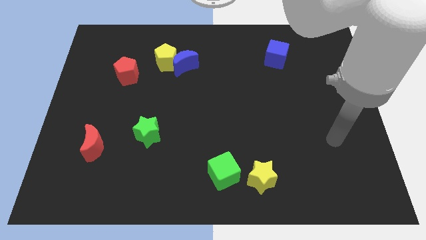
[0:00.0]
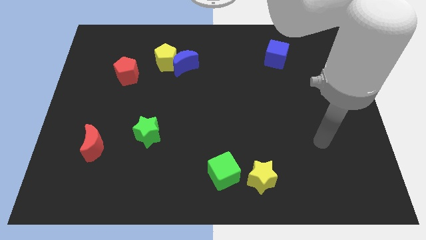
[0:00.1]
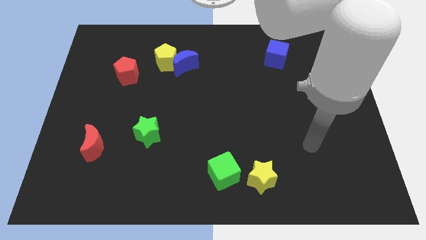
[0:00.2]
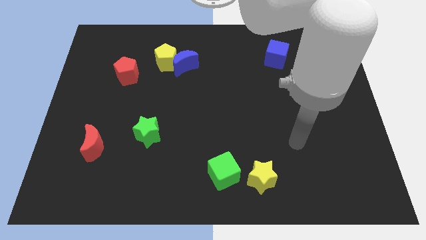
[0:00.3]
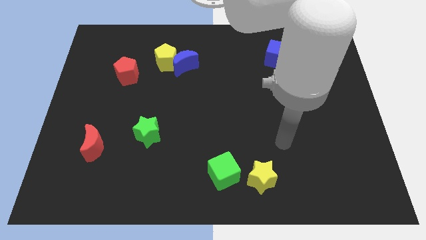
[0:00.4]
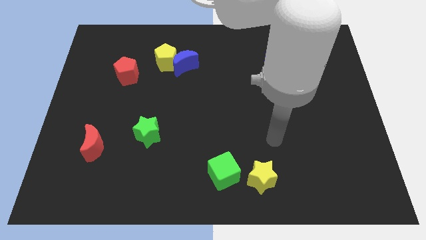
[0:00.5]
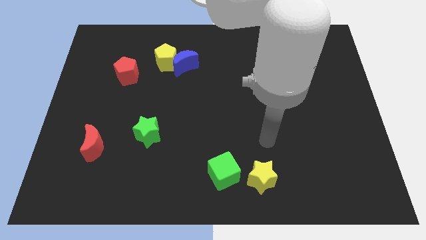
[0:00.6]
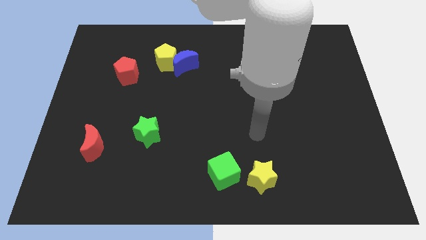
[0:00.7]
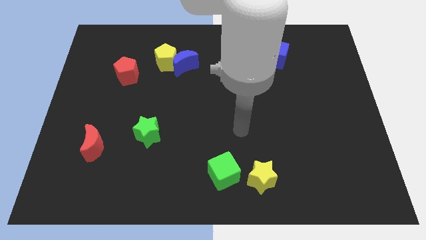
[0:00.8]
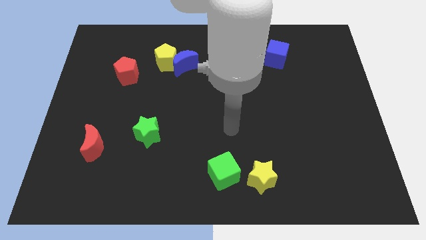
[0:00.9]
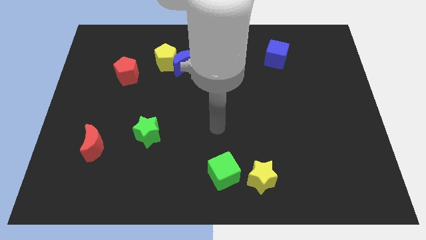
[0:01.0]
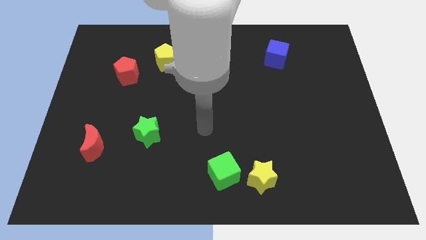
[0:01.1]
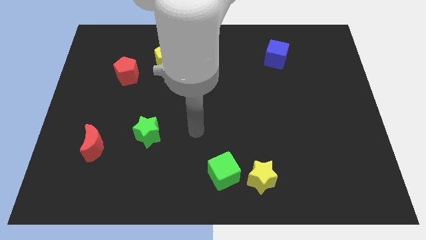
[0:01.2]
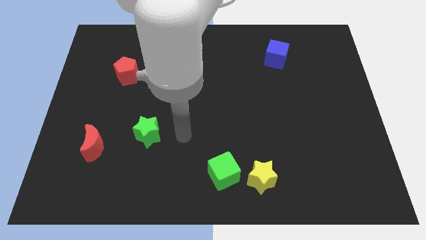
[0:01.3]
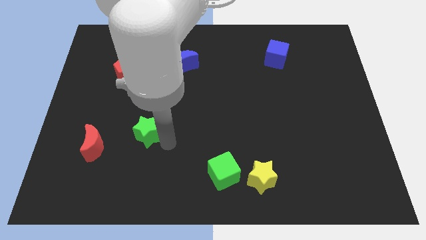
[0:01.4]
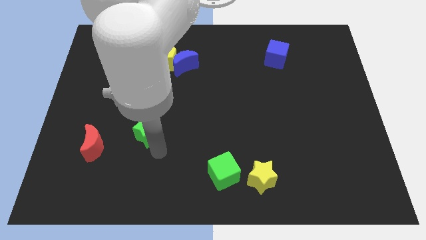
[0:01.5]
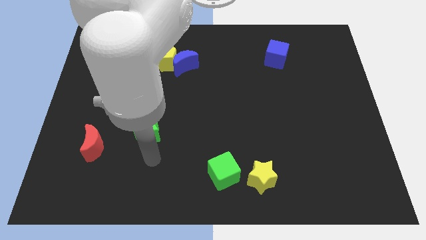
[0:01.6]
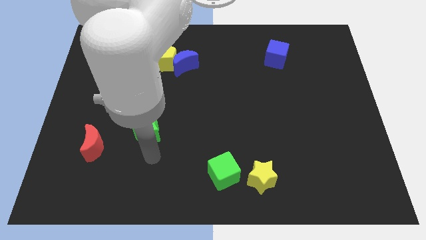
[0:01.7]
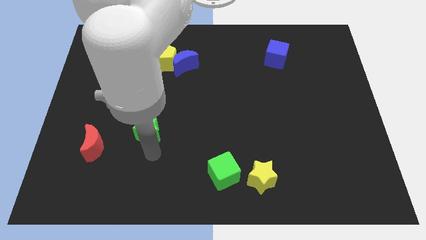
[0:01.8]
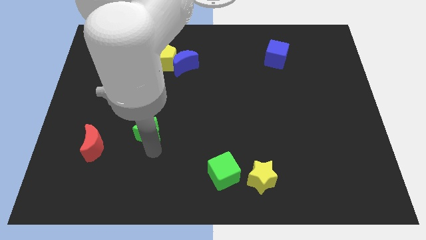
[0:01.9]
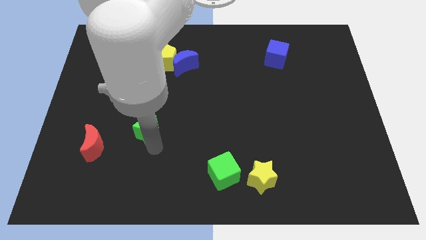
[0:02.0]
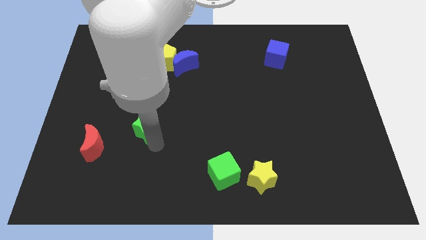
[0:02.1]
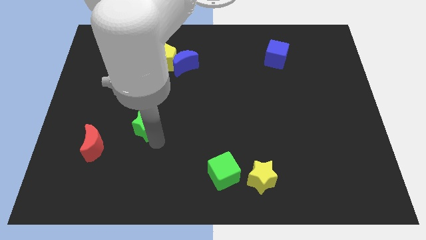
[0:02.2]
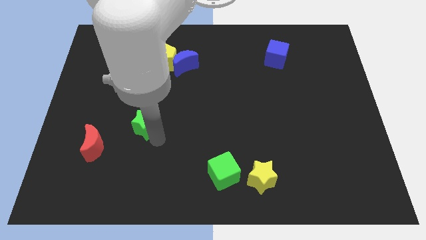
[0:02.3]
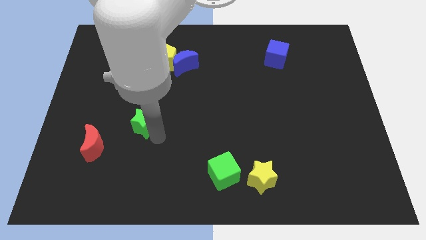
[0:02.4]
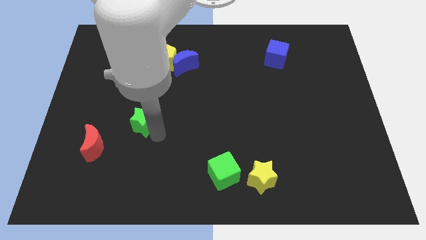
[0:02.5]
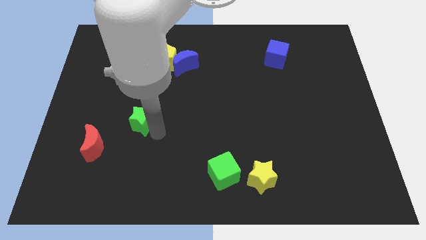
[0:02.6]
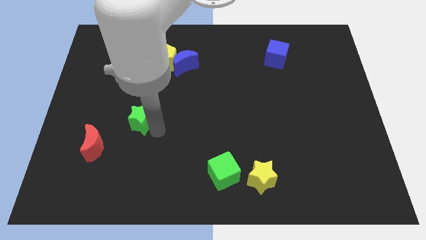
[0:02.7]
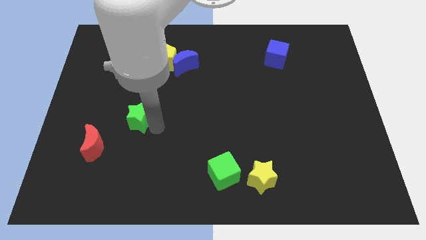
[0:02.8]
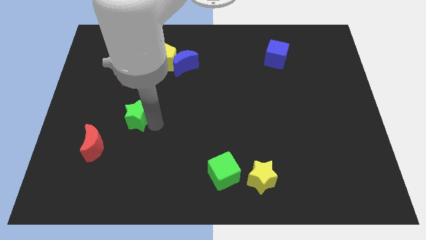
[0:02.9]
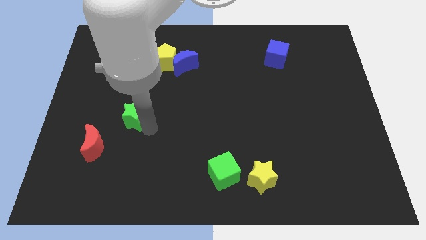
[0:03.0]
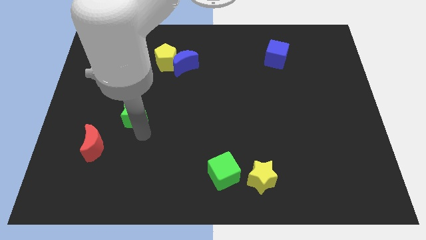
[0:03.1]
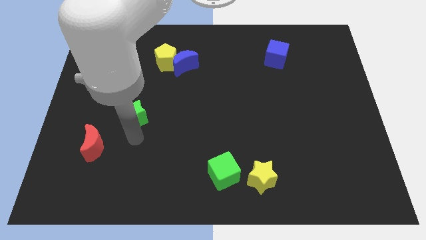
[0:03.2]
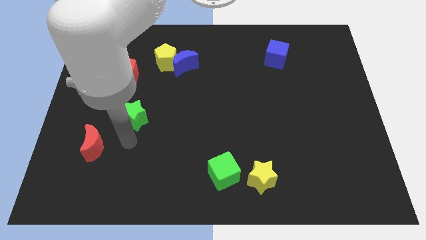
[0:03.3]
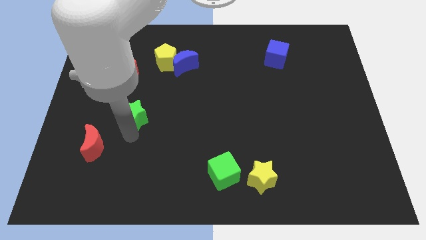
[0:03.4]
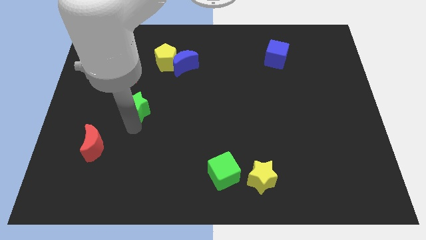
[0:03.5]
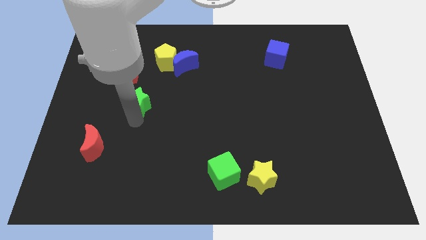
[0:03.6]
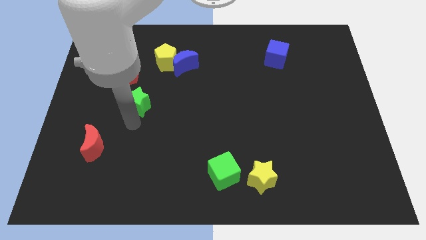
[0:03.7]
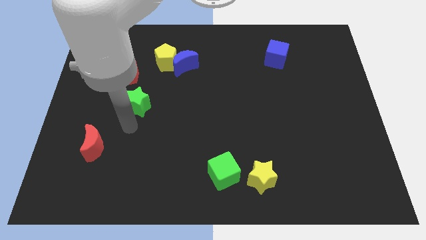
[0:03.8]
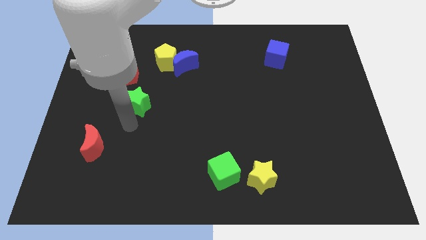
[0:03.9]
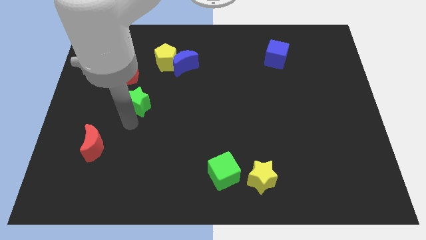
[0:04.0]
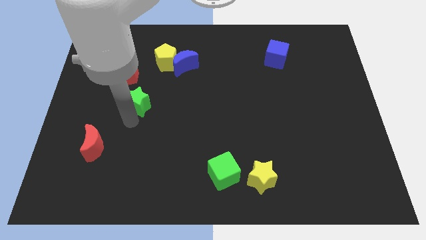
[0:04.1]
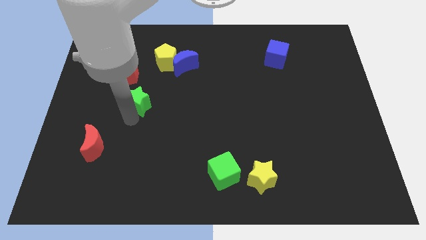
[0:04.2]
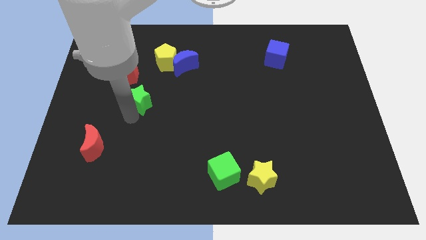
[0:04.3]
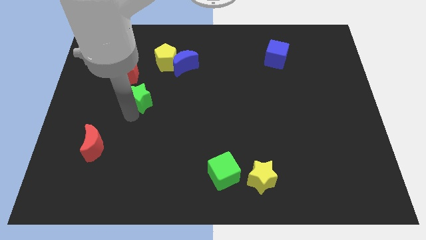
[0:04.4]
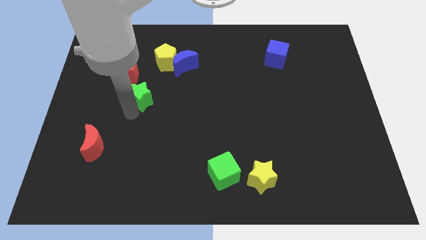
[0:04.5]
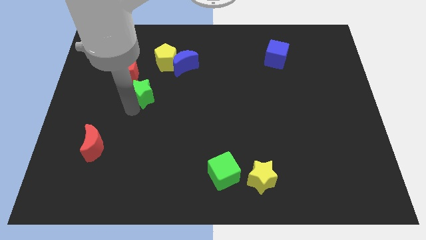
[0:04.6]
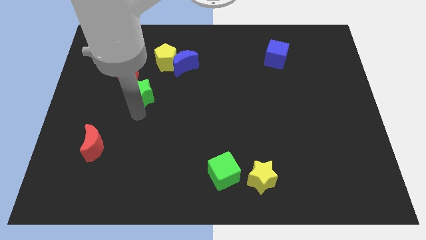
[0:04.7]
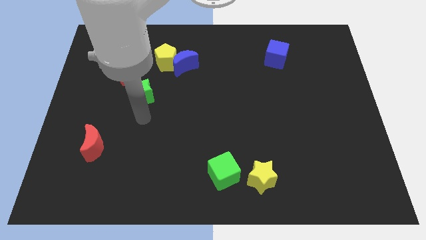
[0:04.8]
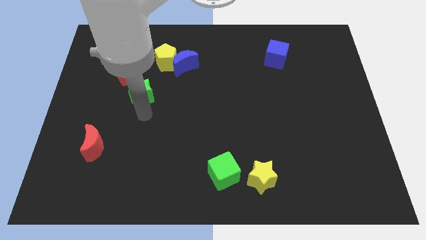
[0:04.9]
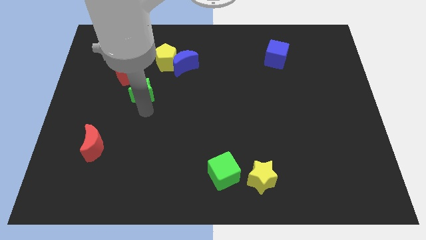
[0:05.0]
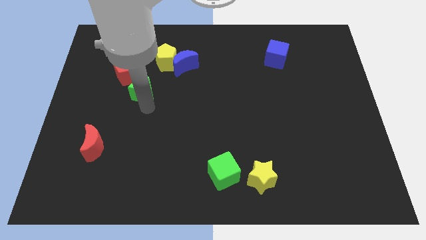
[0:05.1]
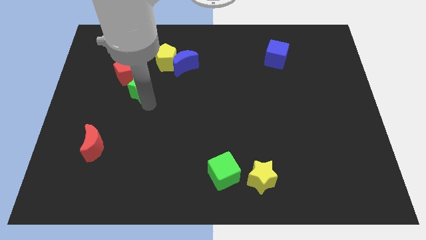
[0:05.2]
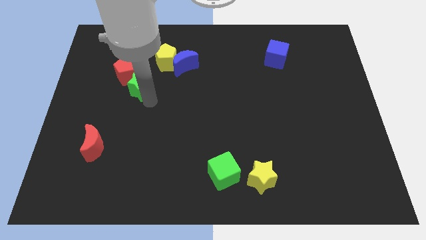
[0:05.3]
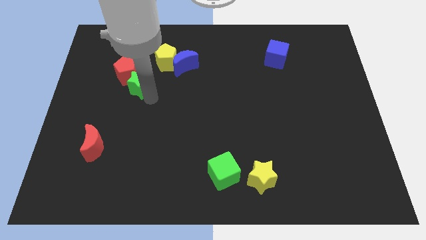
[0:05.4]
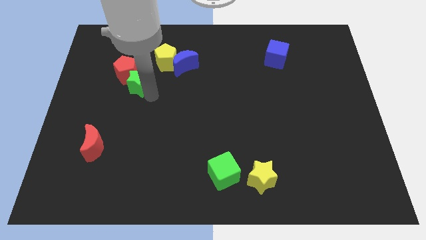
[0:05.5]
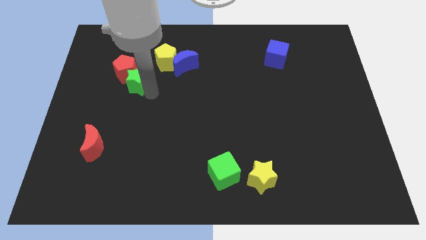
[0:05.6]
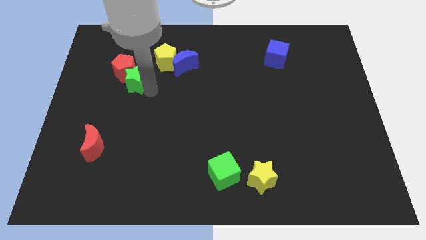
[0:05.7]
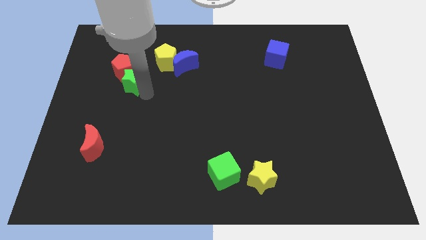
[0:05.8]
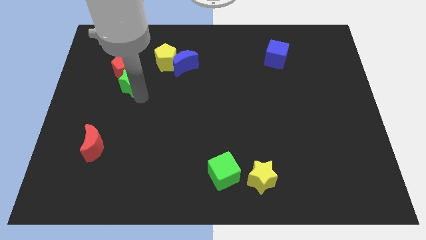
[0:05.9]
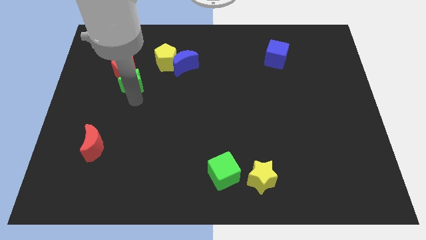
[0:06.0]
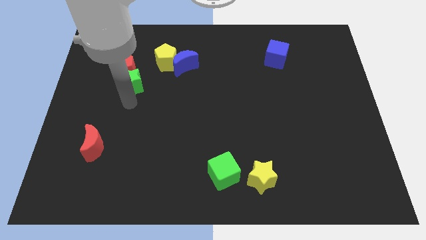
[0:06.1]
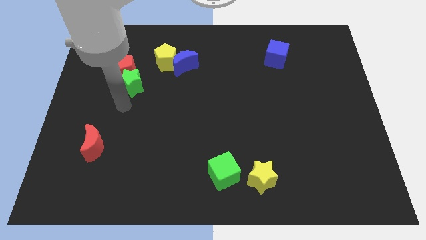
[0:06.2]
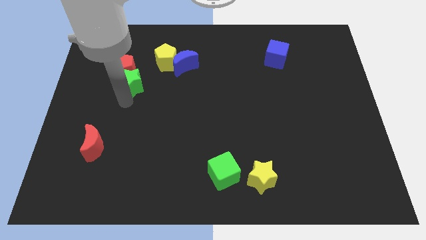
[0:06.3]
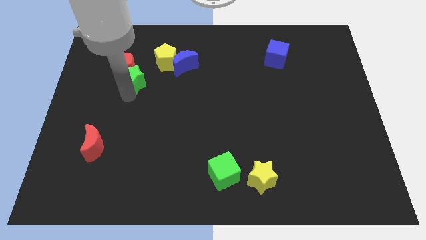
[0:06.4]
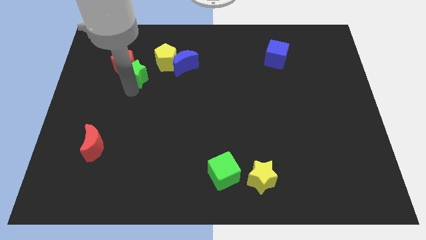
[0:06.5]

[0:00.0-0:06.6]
move the green star to the left side of the blue moon

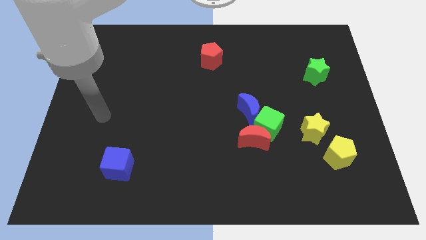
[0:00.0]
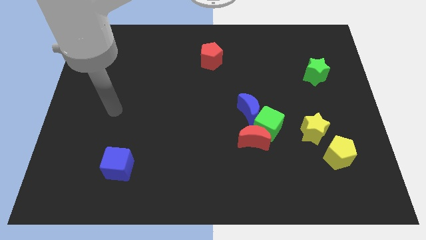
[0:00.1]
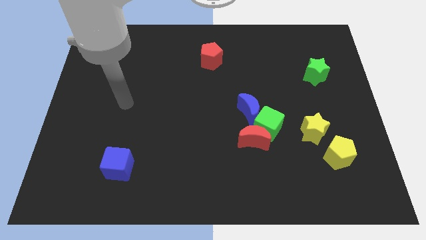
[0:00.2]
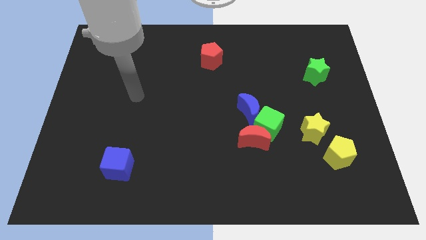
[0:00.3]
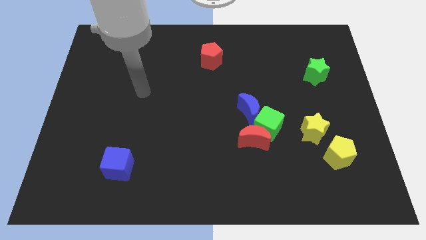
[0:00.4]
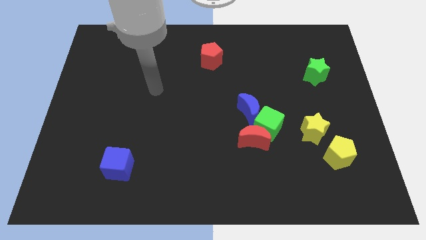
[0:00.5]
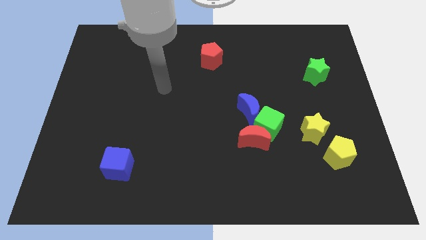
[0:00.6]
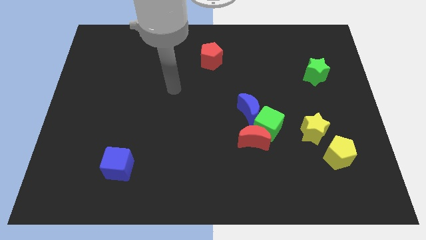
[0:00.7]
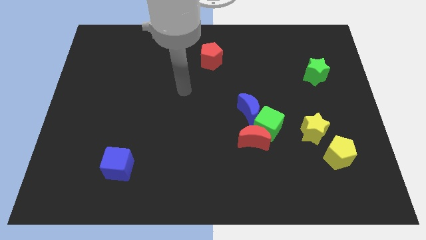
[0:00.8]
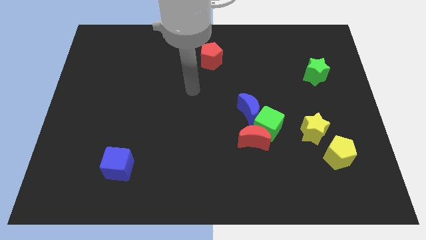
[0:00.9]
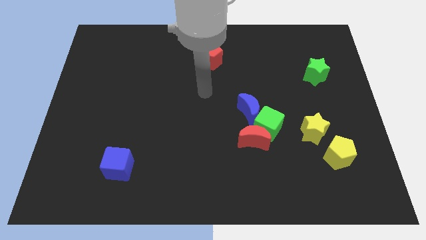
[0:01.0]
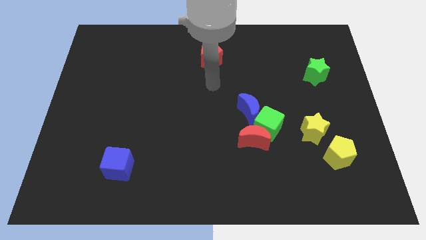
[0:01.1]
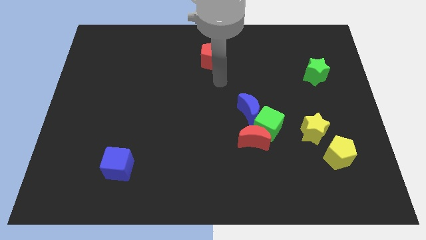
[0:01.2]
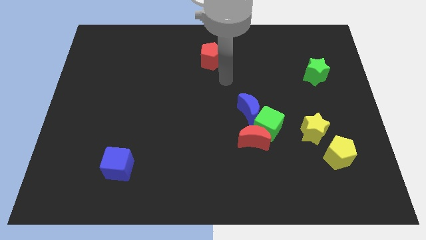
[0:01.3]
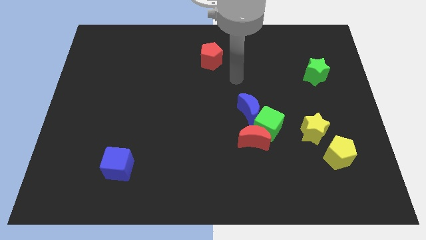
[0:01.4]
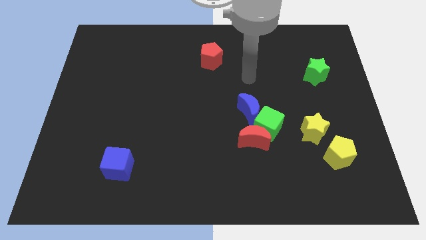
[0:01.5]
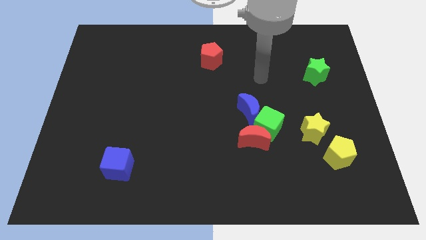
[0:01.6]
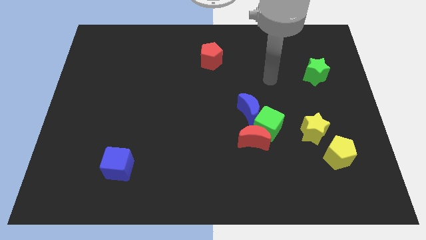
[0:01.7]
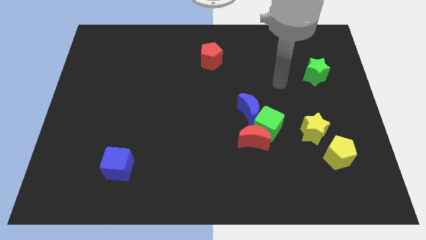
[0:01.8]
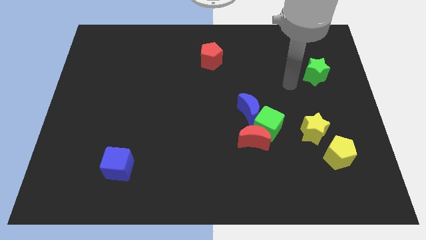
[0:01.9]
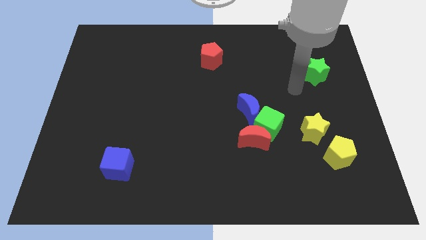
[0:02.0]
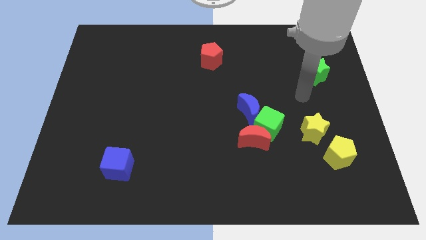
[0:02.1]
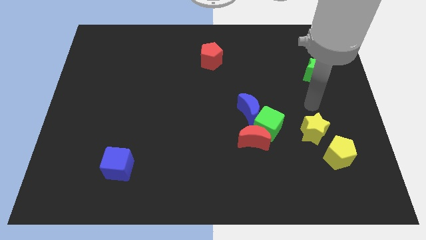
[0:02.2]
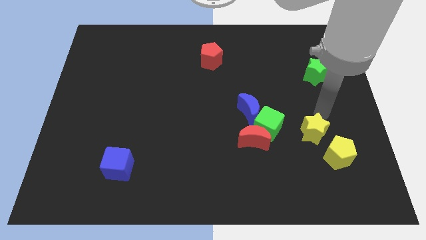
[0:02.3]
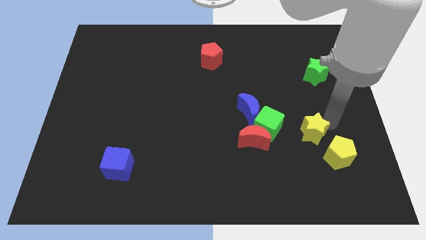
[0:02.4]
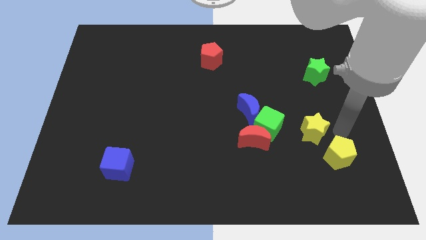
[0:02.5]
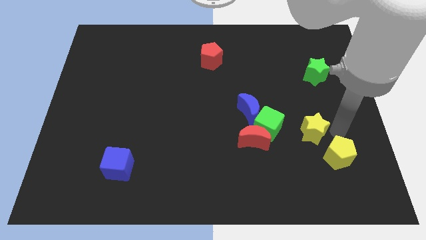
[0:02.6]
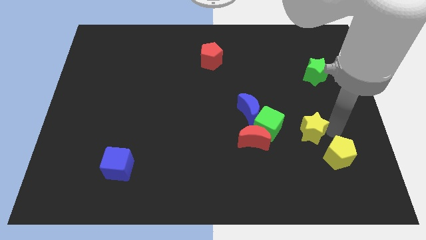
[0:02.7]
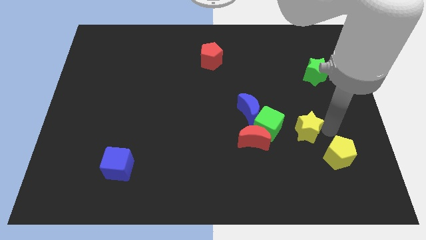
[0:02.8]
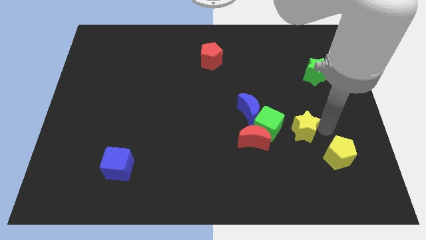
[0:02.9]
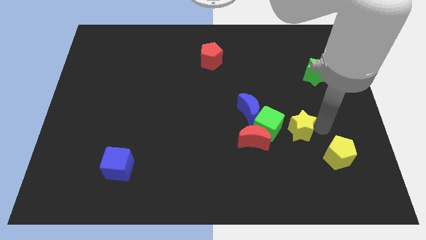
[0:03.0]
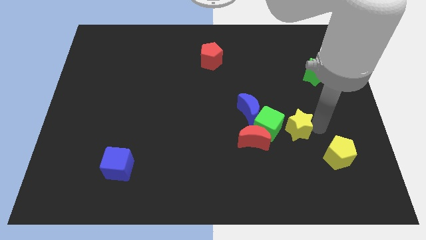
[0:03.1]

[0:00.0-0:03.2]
slide the yellow star to the bottom right side of the blue moon
